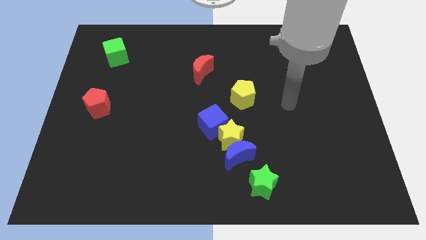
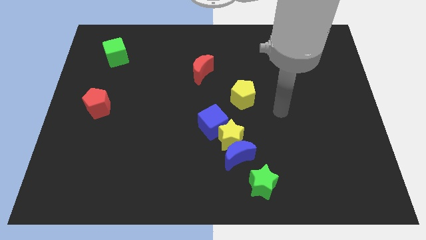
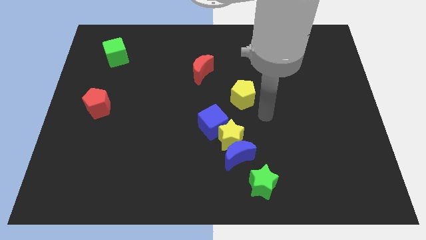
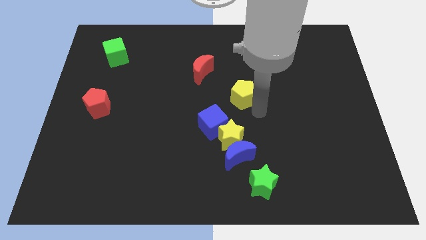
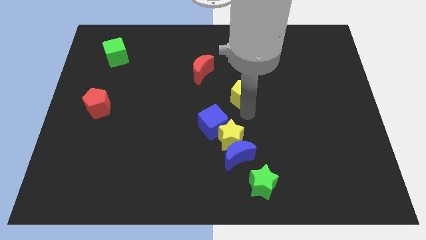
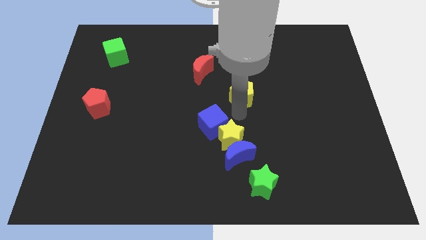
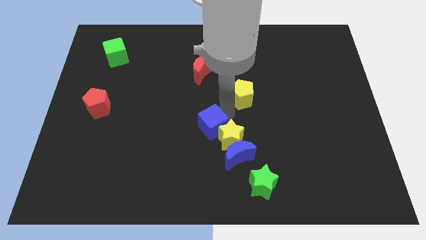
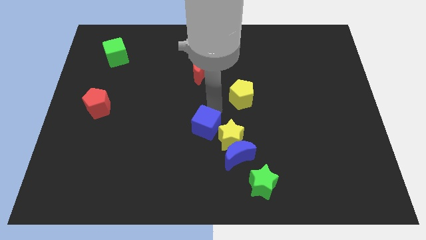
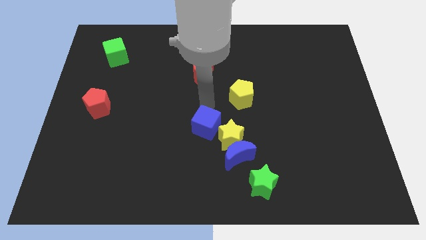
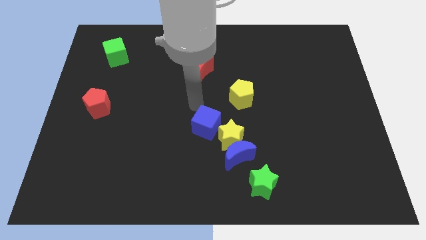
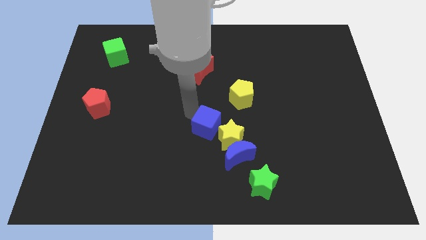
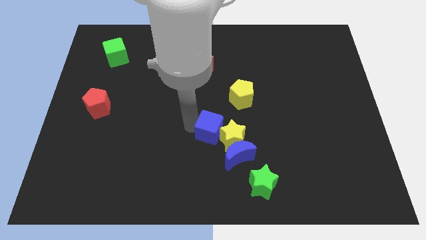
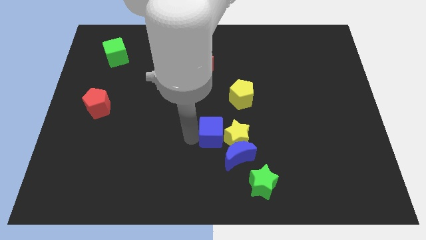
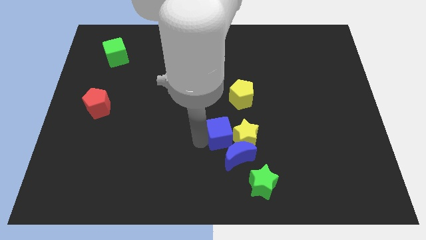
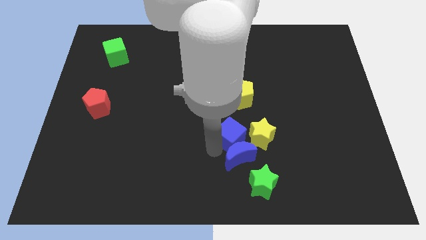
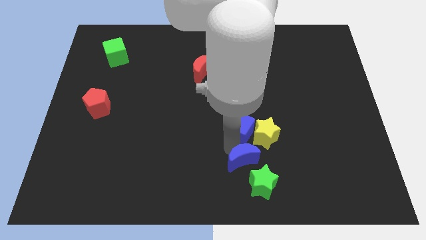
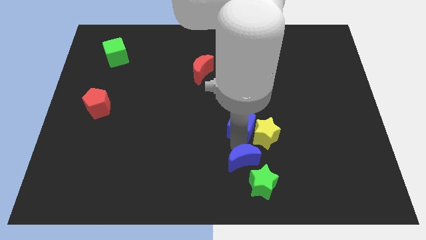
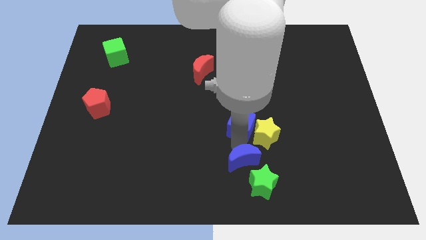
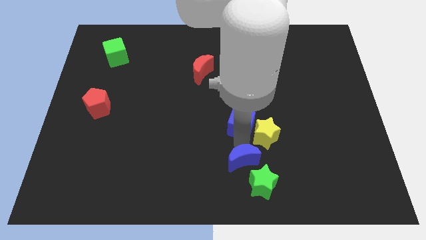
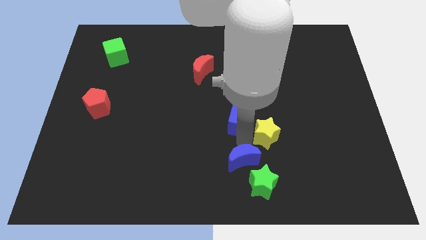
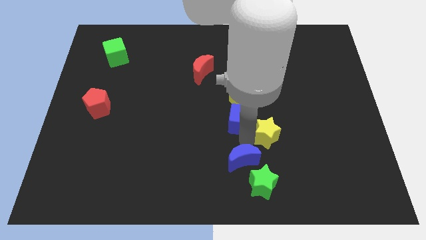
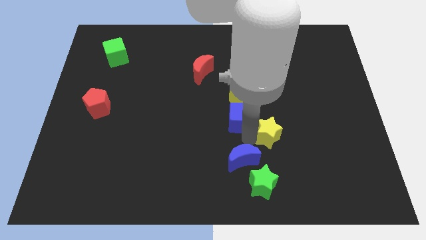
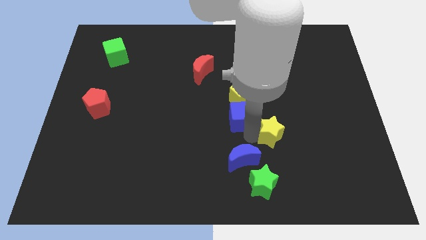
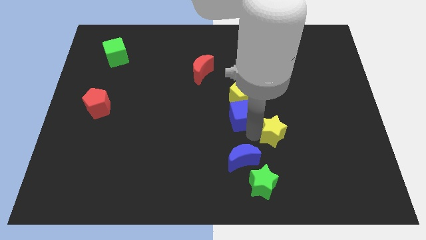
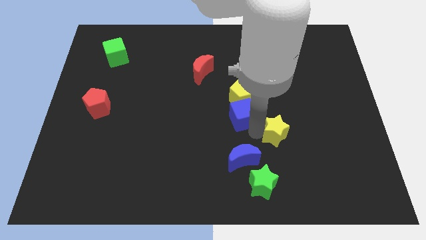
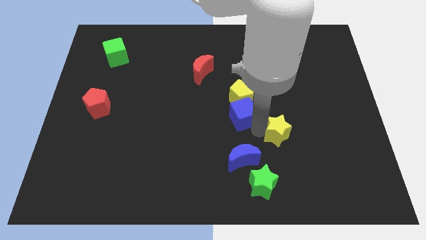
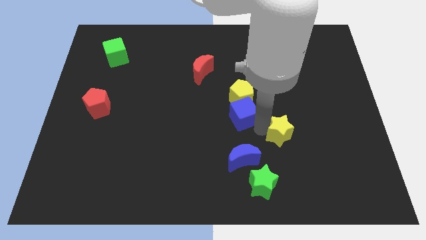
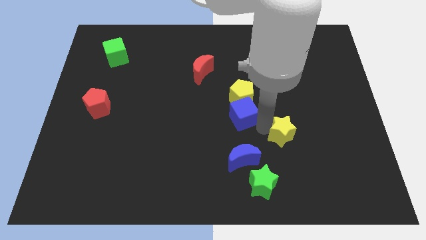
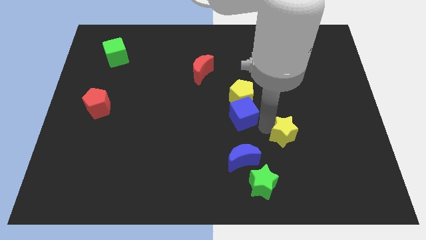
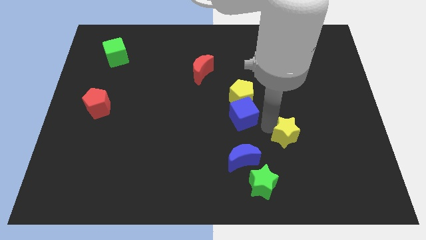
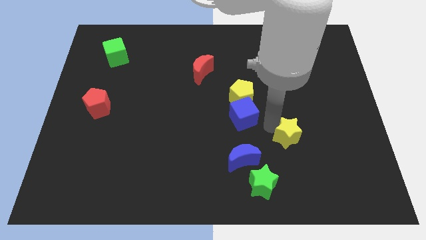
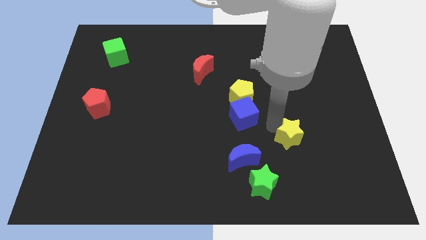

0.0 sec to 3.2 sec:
pull the yellow star apart from the blue moon and blue cube

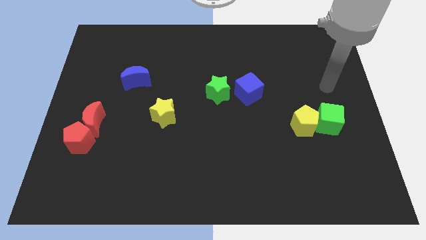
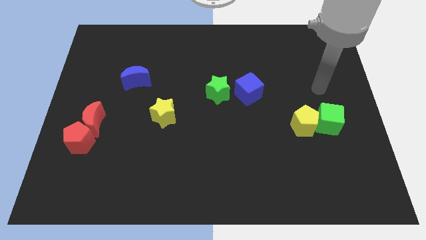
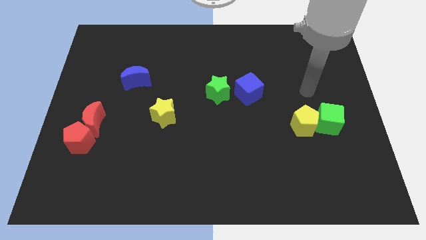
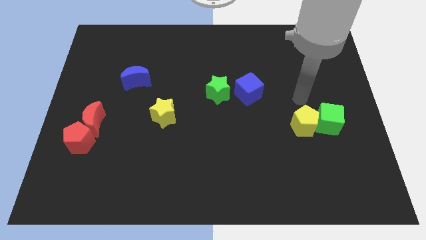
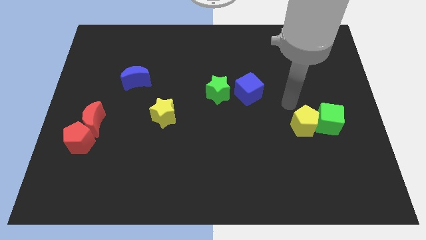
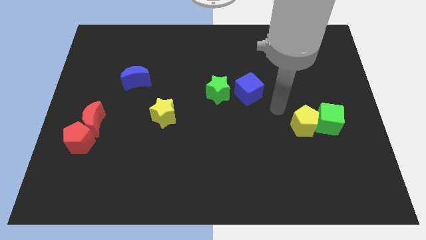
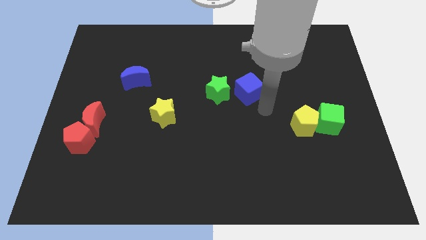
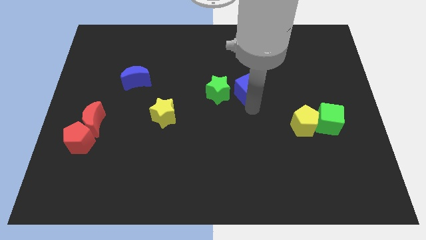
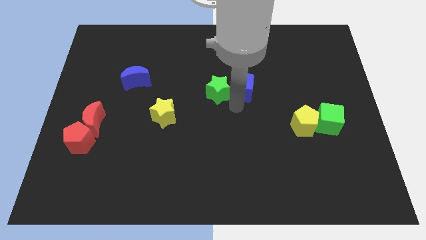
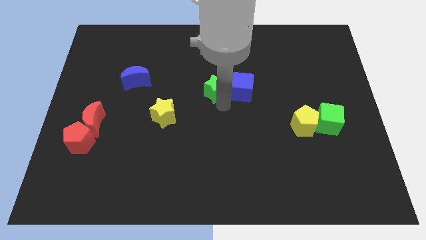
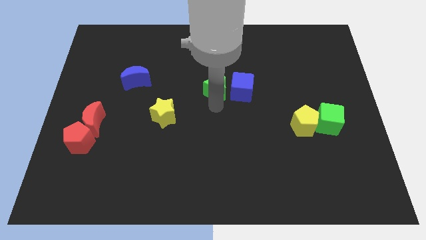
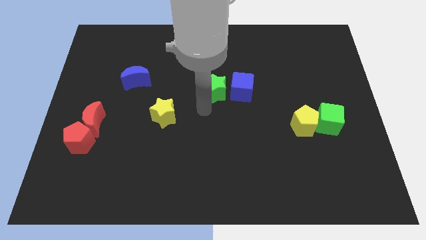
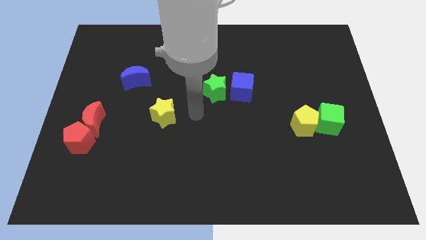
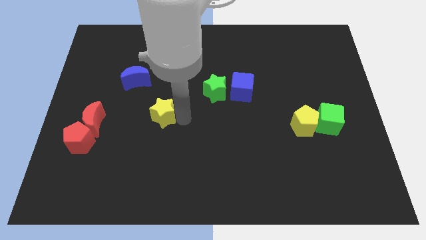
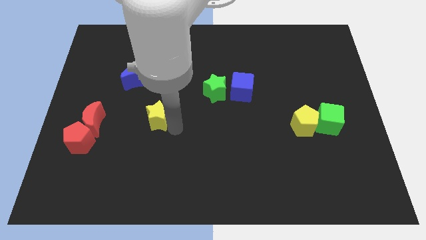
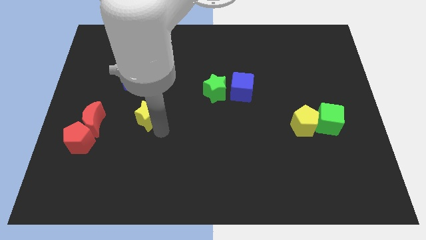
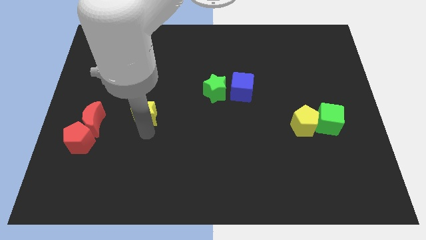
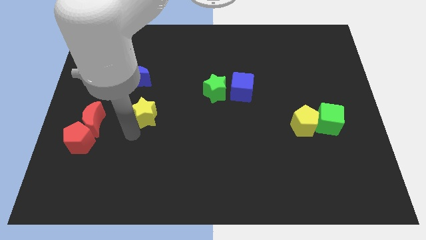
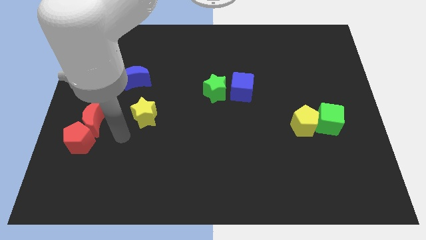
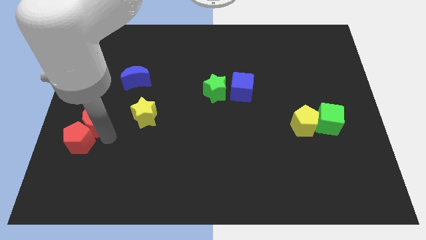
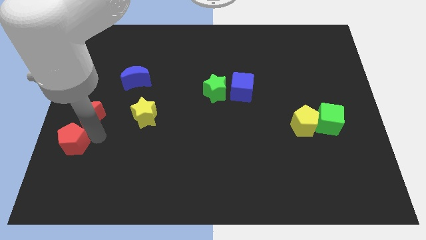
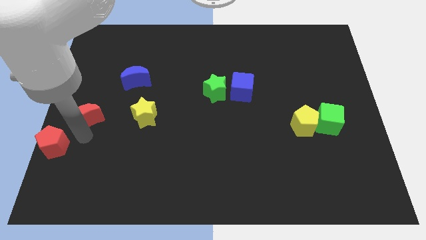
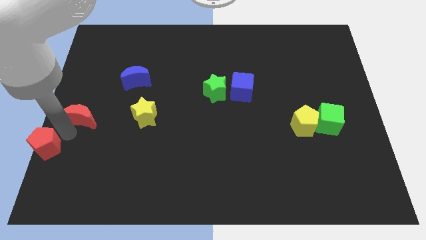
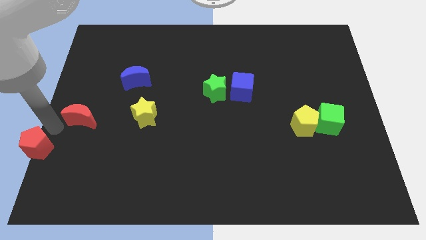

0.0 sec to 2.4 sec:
pull the red moon apart from the red pentagon

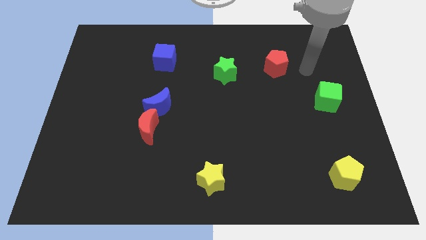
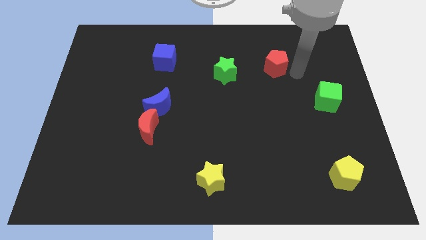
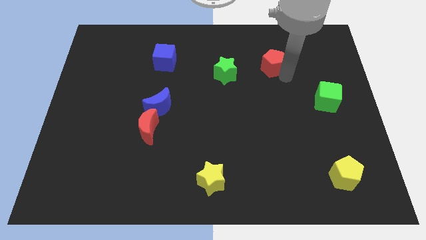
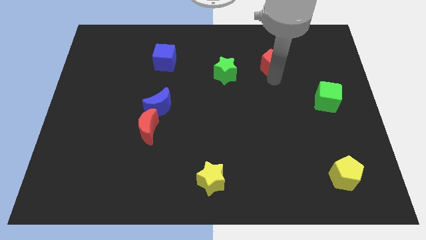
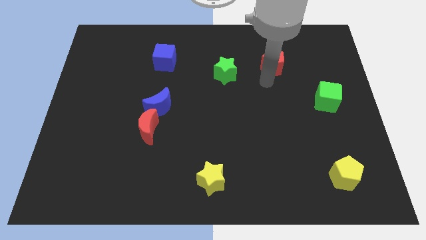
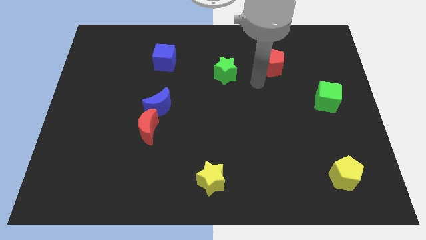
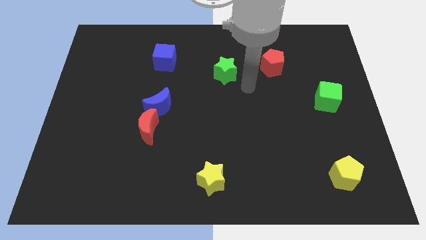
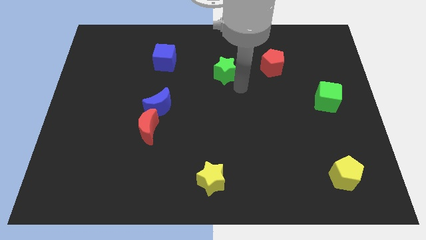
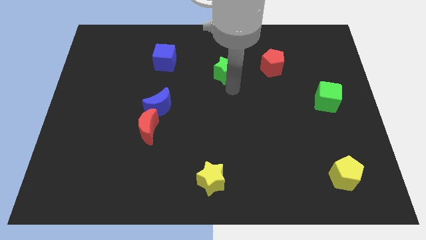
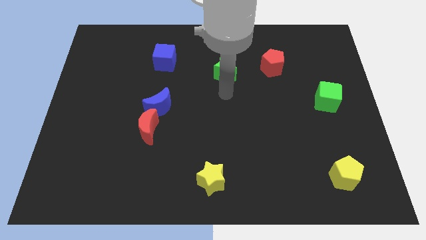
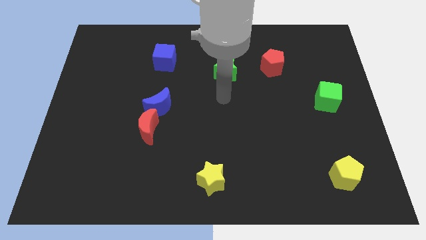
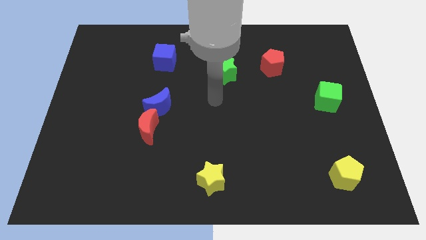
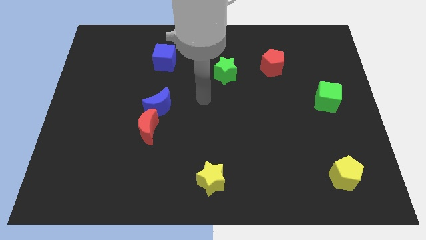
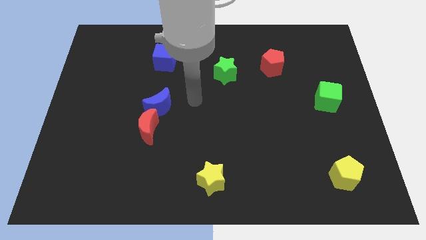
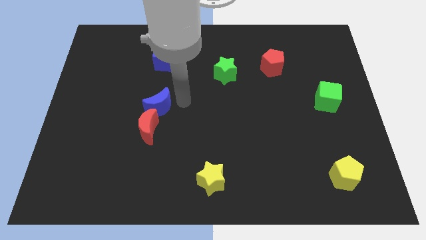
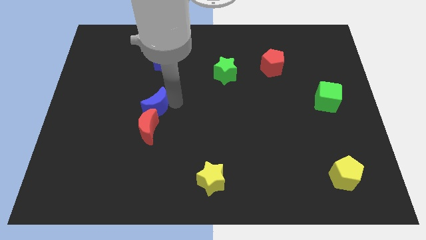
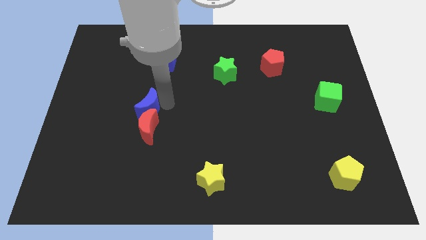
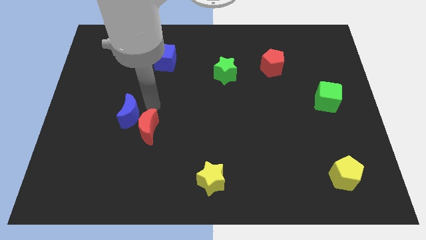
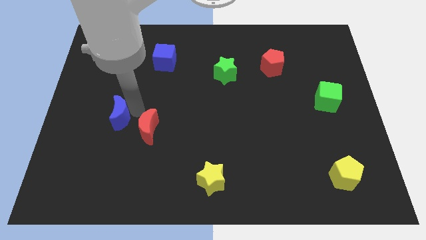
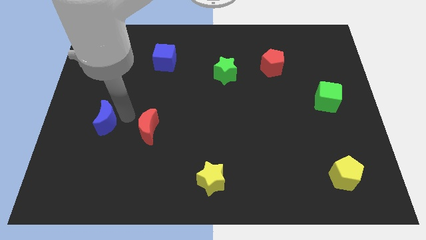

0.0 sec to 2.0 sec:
move the red moon away from the blue moon

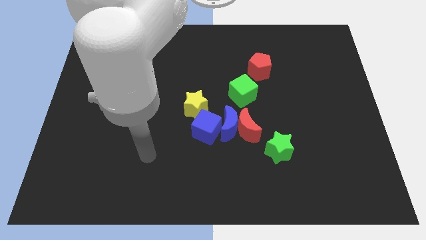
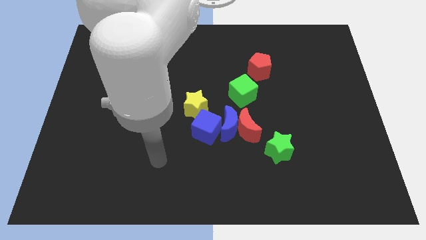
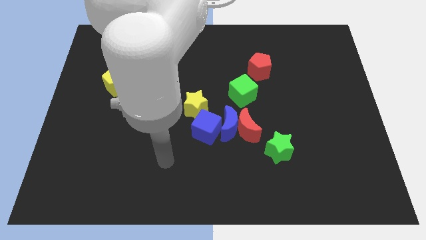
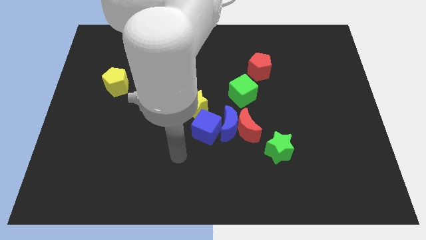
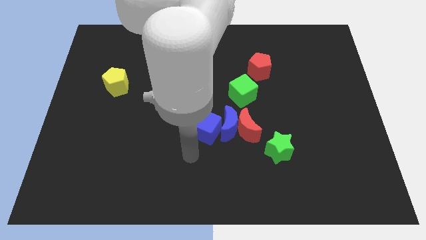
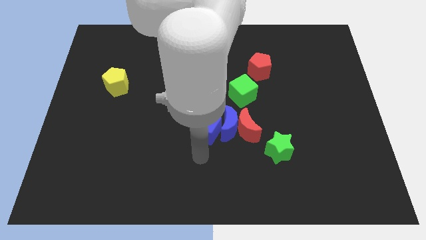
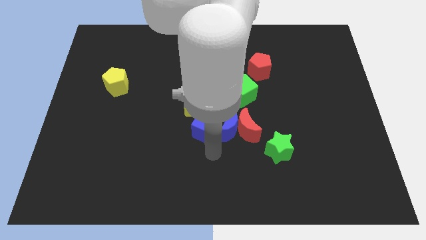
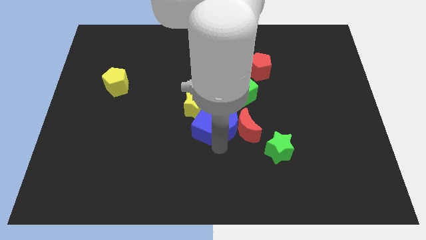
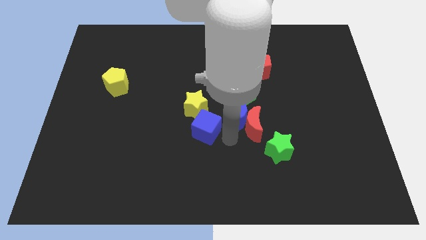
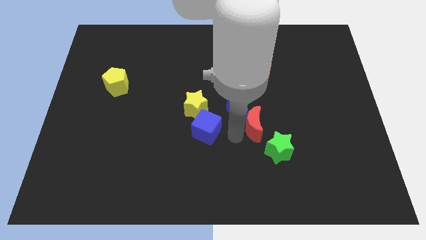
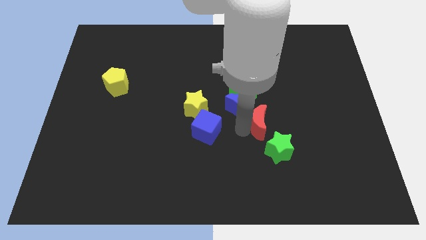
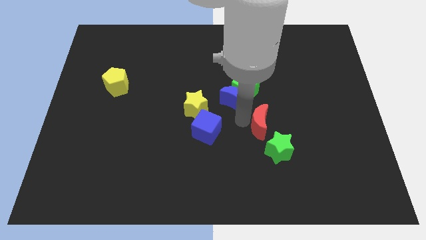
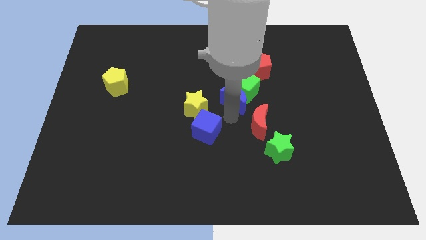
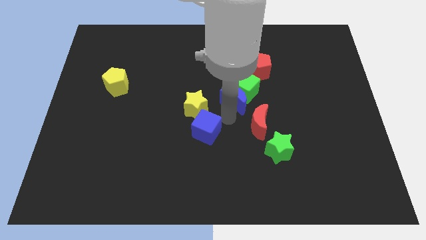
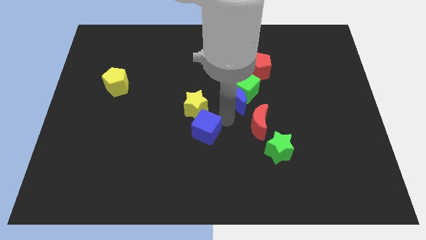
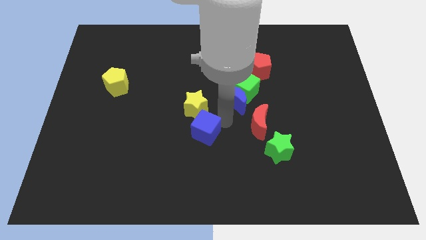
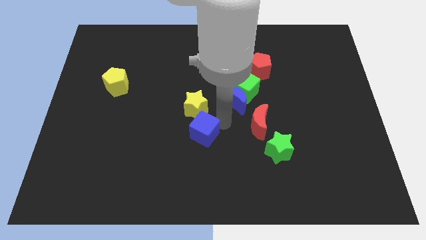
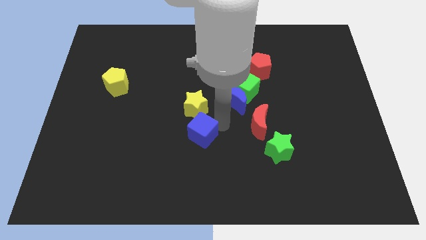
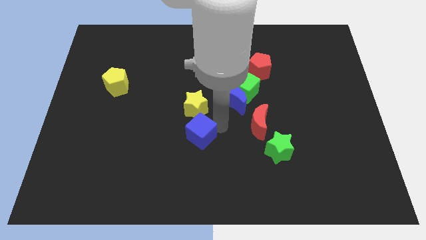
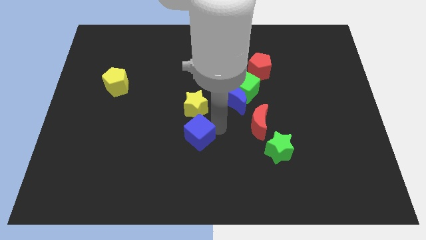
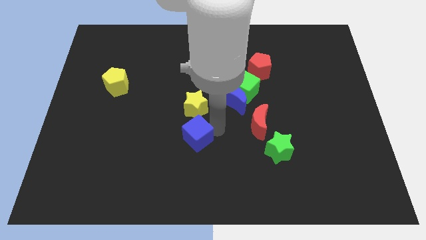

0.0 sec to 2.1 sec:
move the blue cube away from the clump
